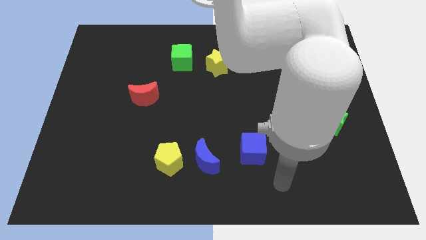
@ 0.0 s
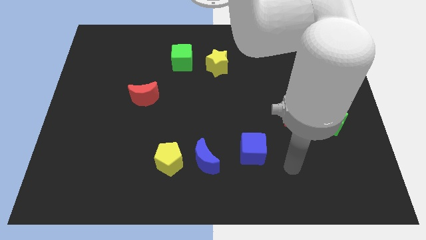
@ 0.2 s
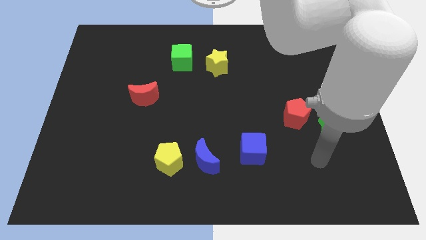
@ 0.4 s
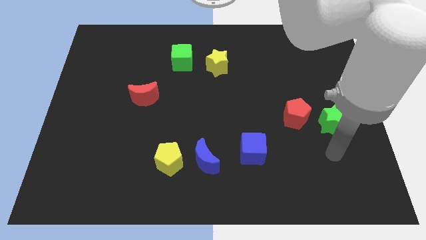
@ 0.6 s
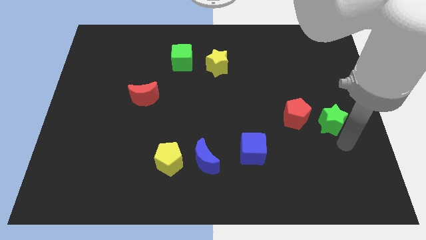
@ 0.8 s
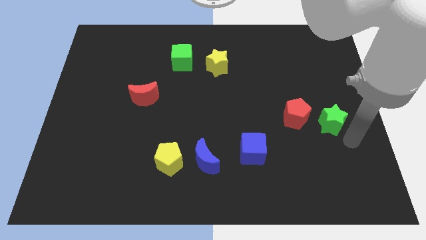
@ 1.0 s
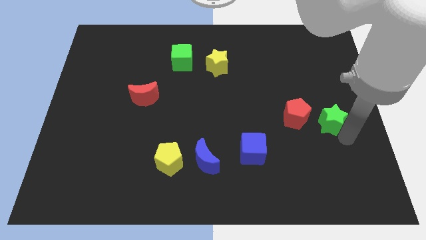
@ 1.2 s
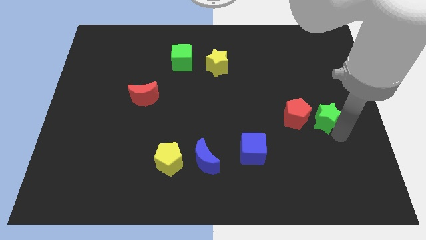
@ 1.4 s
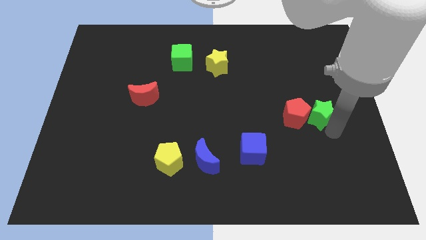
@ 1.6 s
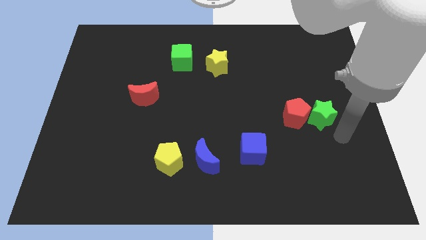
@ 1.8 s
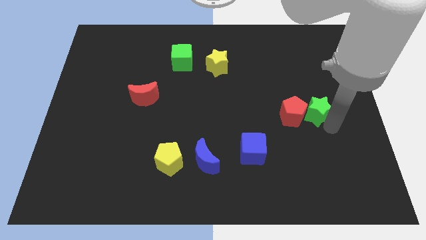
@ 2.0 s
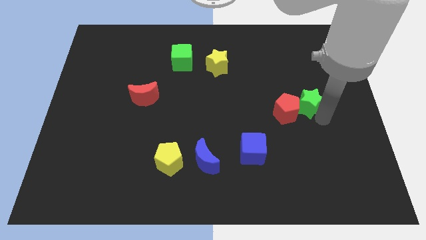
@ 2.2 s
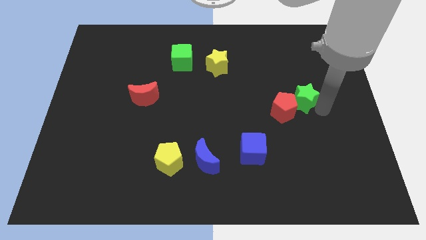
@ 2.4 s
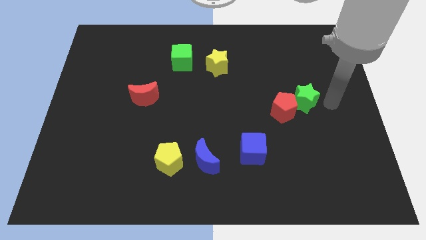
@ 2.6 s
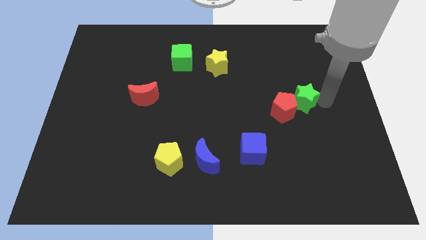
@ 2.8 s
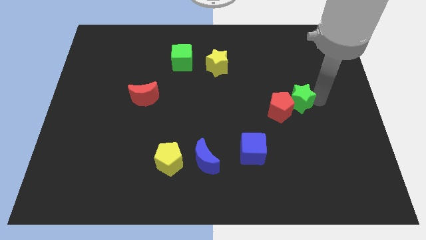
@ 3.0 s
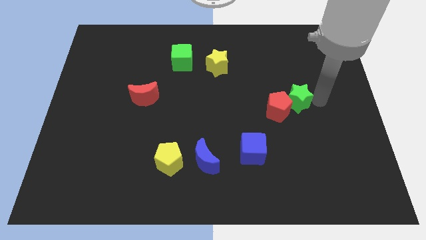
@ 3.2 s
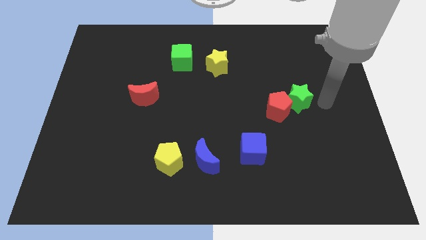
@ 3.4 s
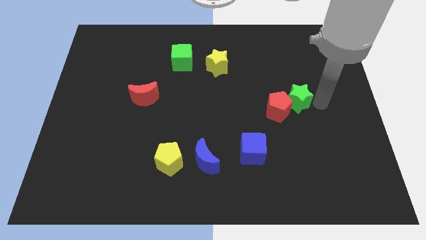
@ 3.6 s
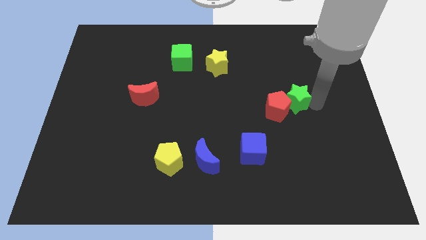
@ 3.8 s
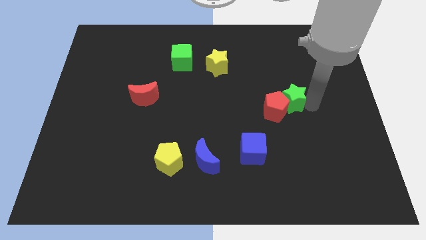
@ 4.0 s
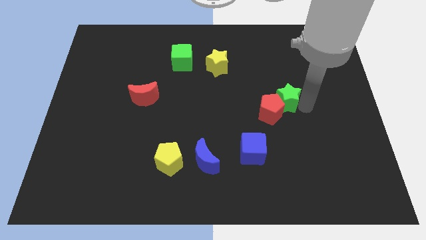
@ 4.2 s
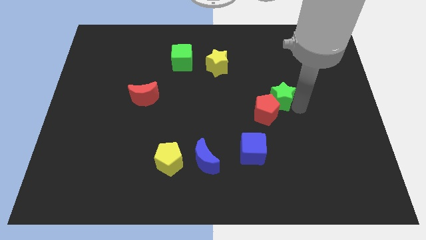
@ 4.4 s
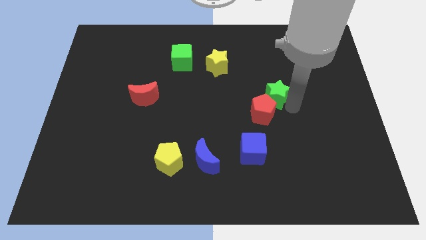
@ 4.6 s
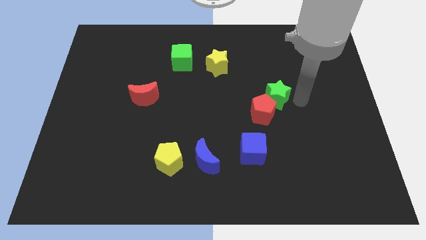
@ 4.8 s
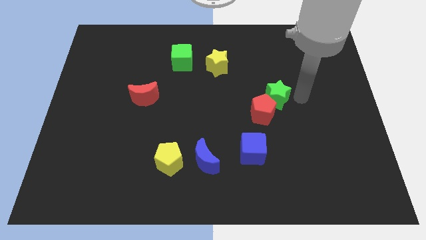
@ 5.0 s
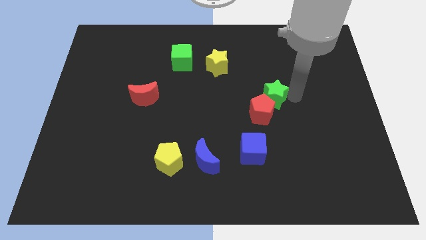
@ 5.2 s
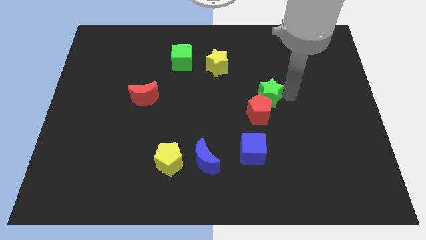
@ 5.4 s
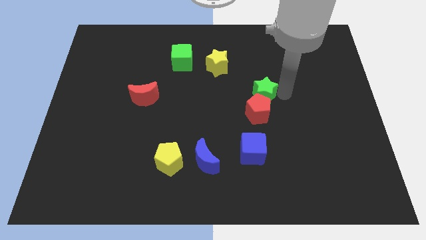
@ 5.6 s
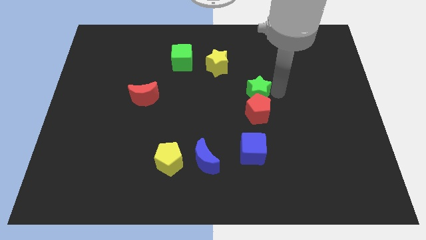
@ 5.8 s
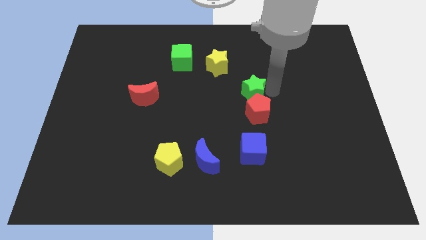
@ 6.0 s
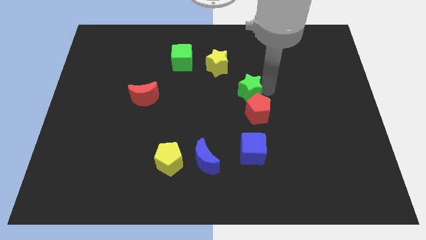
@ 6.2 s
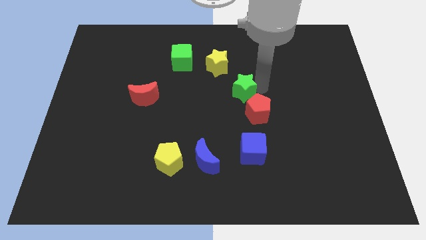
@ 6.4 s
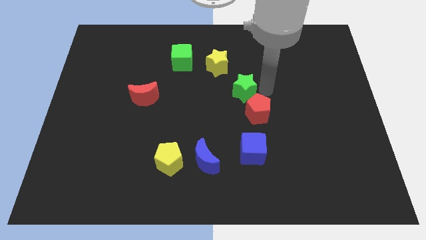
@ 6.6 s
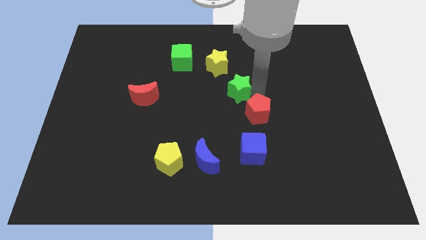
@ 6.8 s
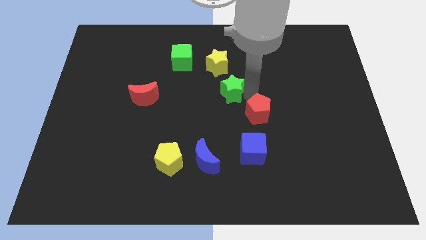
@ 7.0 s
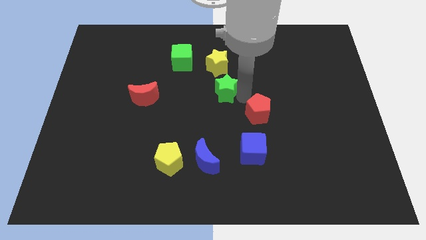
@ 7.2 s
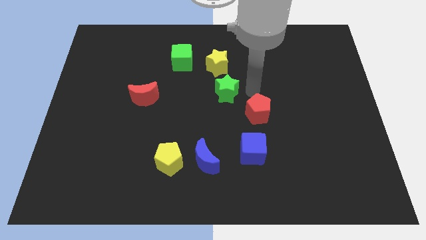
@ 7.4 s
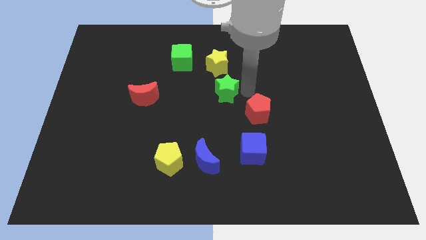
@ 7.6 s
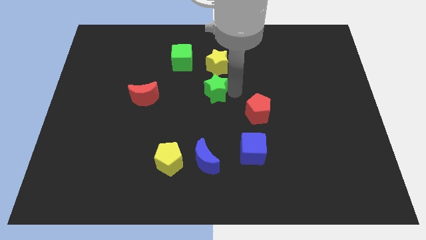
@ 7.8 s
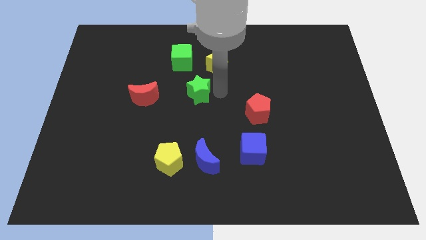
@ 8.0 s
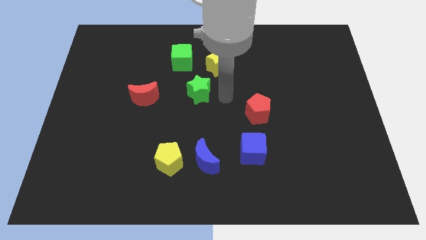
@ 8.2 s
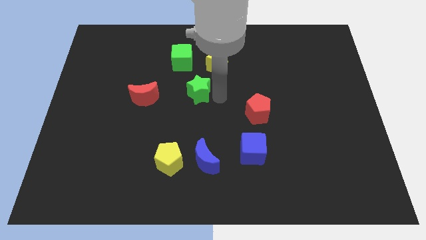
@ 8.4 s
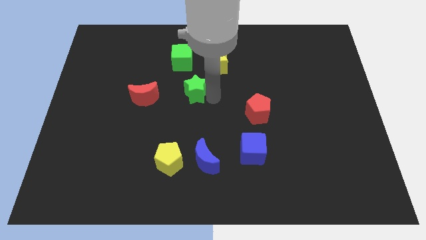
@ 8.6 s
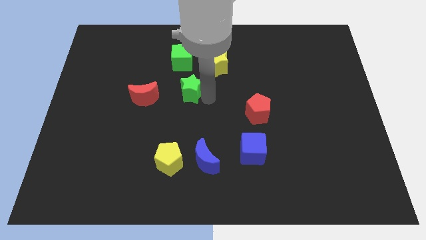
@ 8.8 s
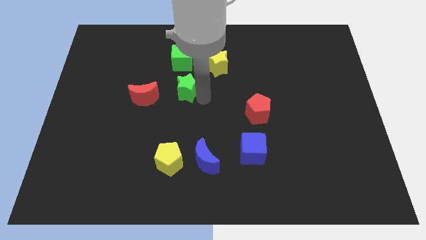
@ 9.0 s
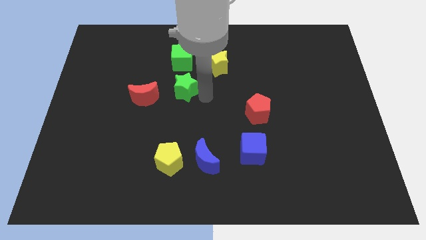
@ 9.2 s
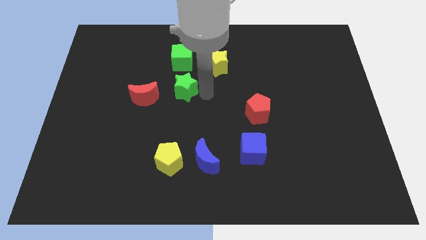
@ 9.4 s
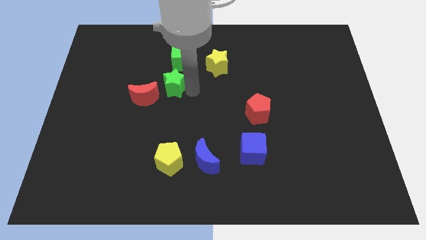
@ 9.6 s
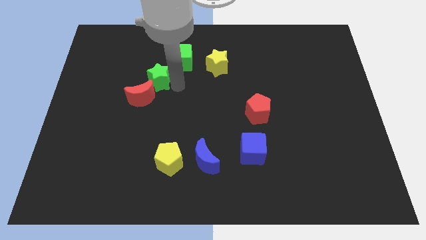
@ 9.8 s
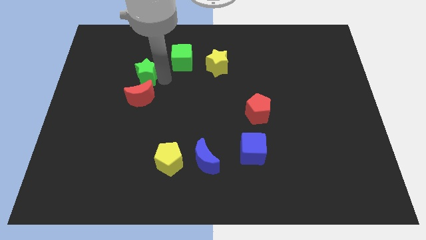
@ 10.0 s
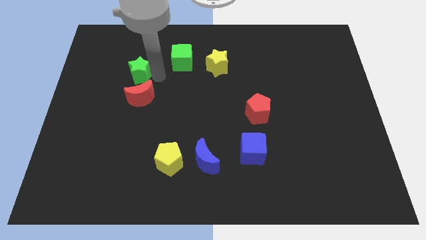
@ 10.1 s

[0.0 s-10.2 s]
move the green star to the top left of the red moon
